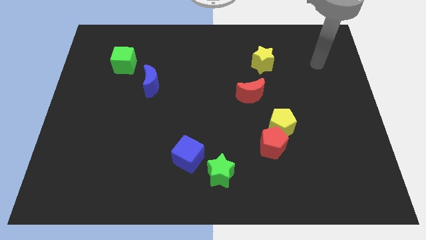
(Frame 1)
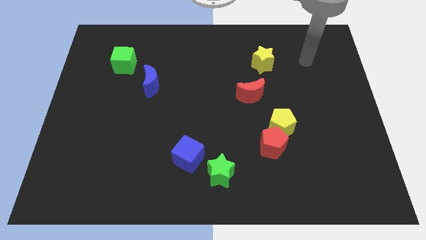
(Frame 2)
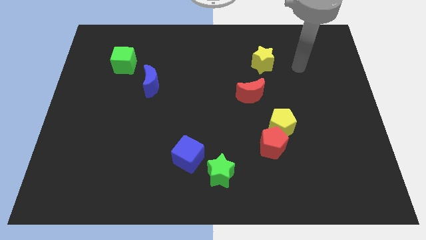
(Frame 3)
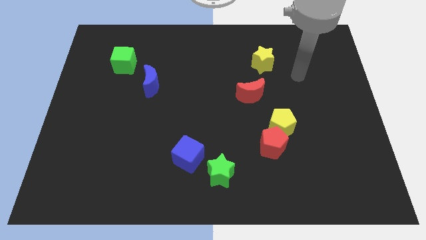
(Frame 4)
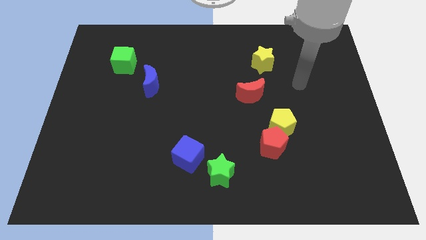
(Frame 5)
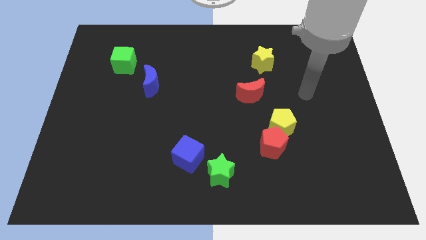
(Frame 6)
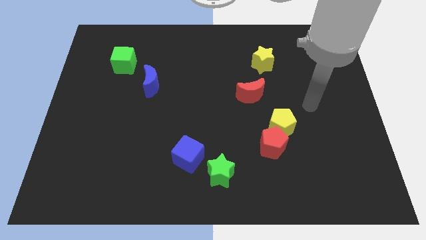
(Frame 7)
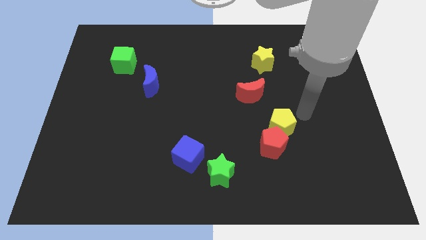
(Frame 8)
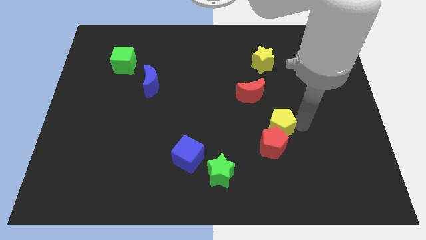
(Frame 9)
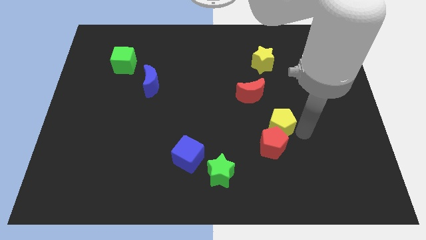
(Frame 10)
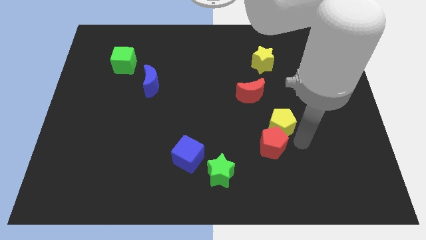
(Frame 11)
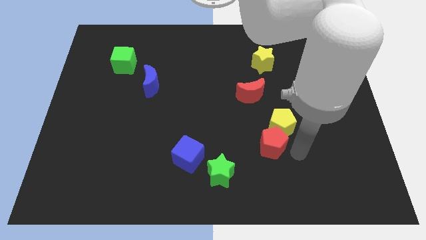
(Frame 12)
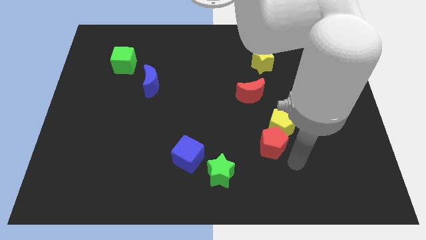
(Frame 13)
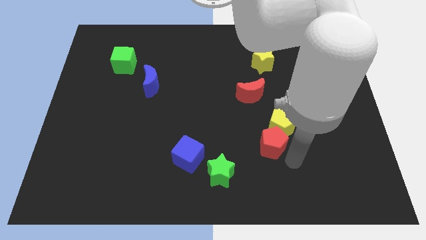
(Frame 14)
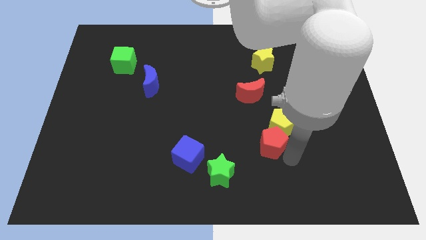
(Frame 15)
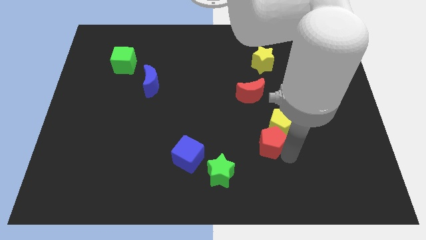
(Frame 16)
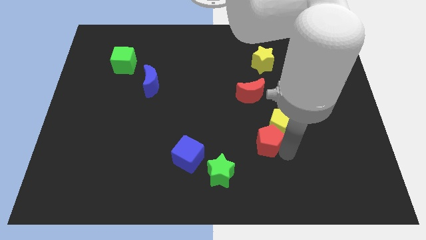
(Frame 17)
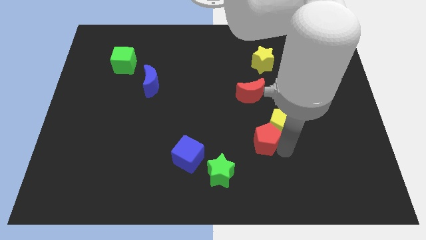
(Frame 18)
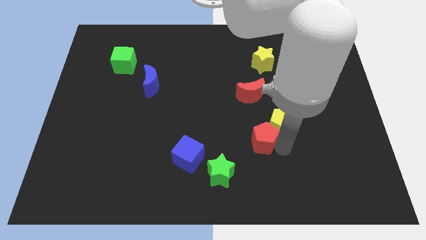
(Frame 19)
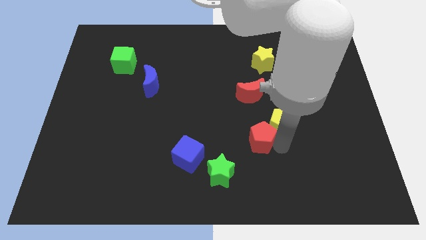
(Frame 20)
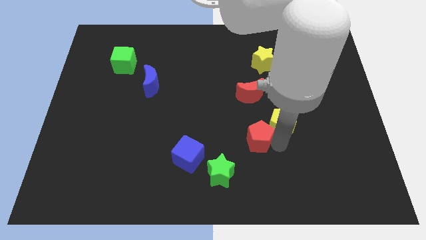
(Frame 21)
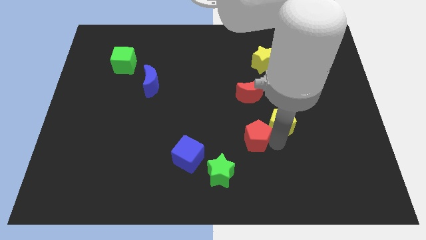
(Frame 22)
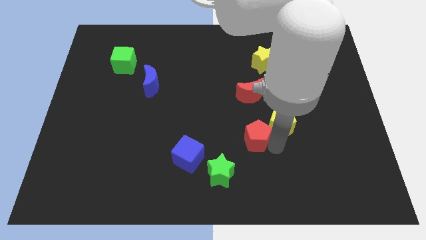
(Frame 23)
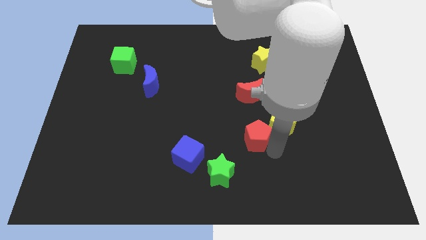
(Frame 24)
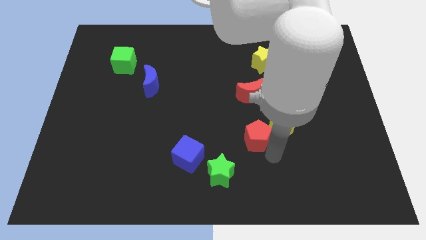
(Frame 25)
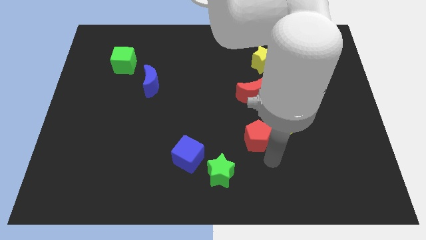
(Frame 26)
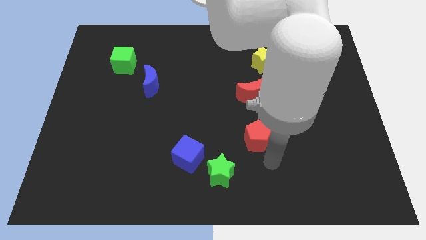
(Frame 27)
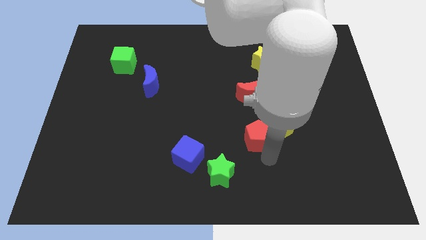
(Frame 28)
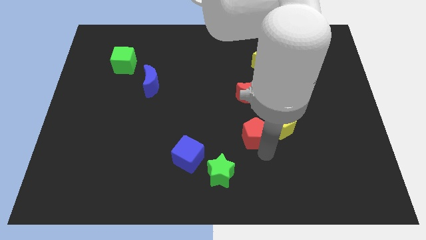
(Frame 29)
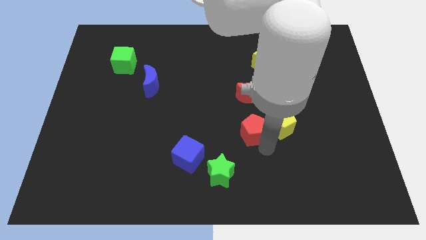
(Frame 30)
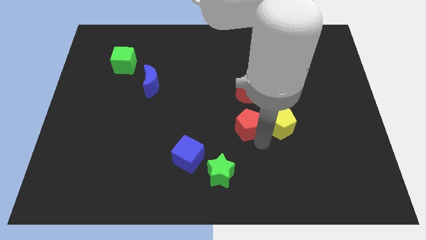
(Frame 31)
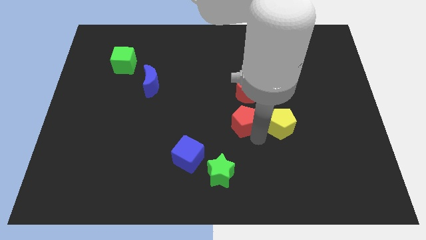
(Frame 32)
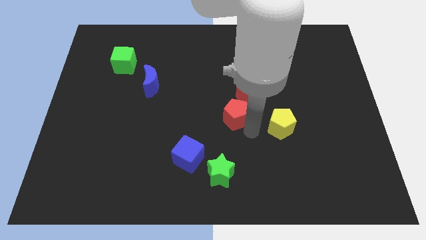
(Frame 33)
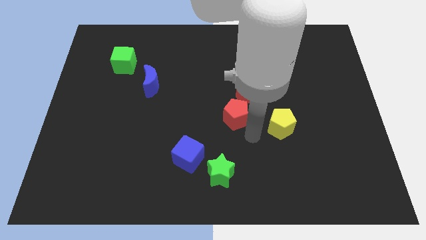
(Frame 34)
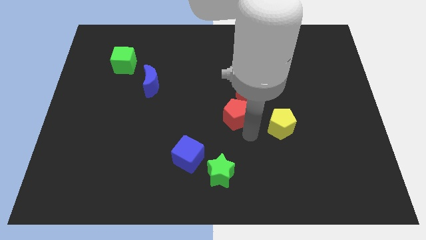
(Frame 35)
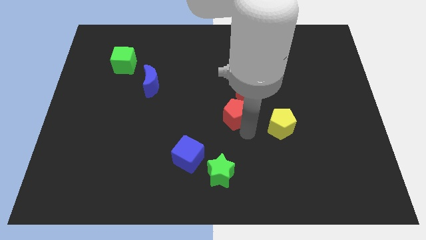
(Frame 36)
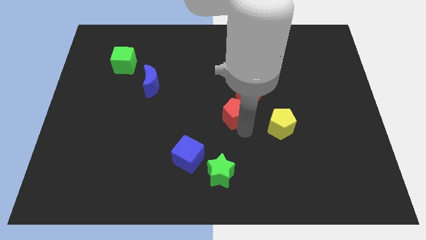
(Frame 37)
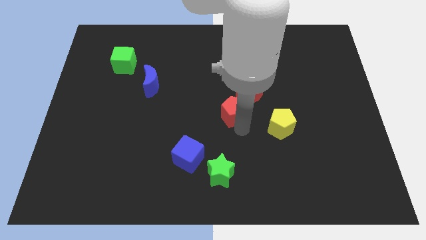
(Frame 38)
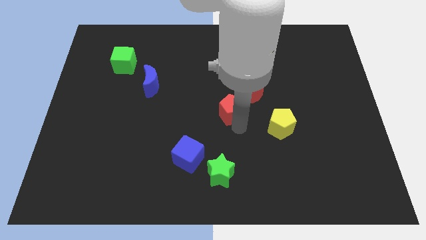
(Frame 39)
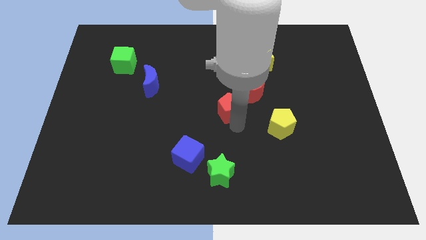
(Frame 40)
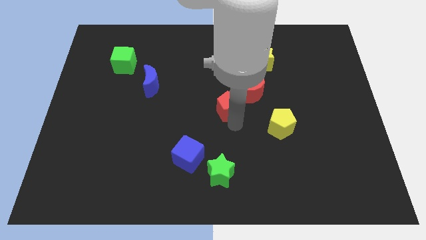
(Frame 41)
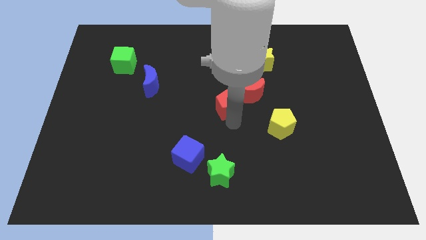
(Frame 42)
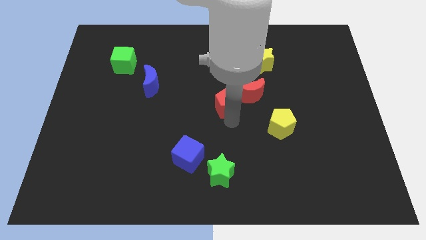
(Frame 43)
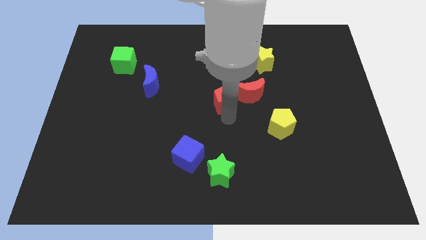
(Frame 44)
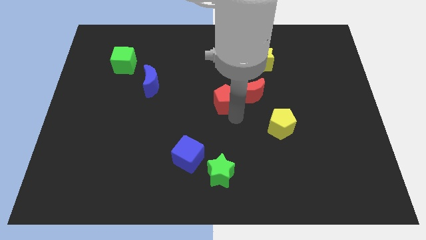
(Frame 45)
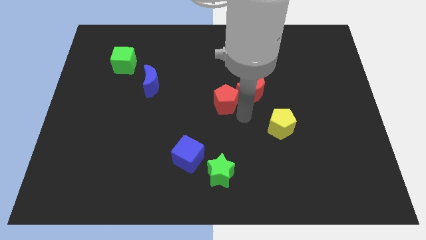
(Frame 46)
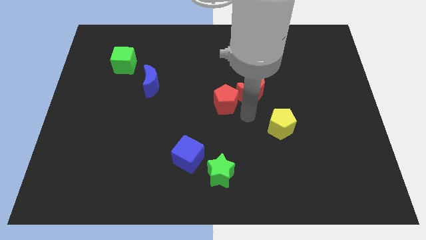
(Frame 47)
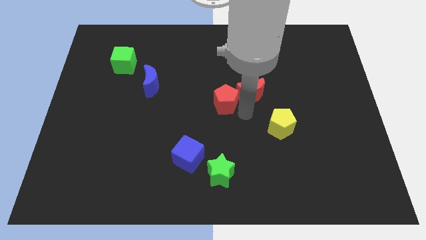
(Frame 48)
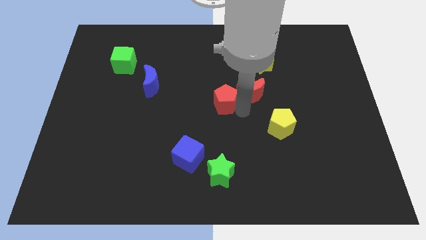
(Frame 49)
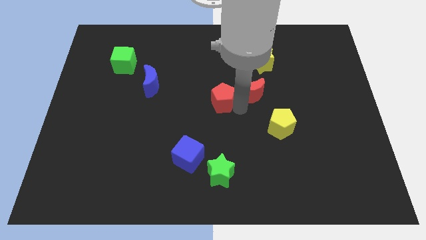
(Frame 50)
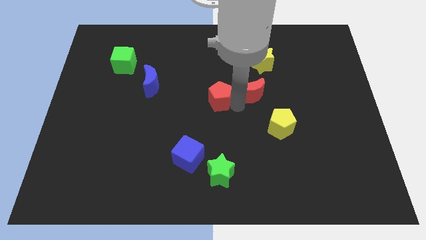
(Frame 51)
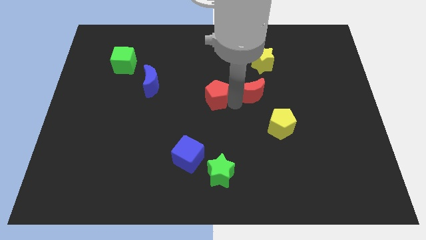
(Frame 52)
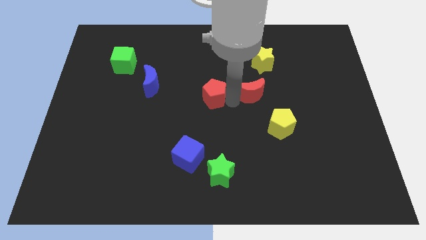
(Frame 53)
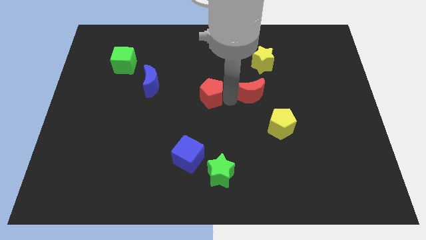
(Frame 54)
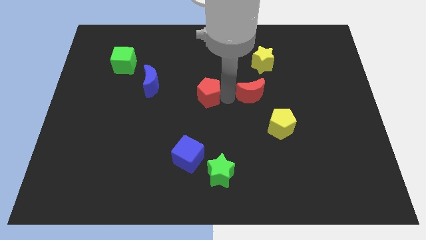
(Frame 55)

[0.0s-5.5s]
move the red pentagon up and then to the left

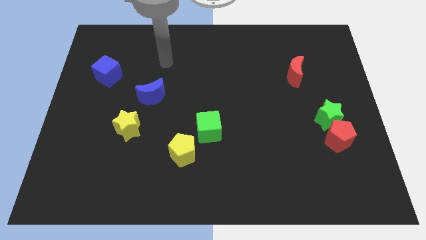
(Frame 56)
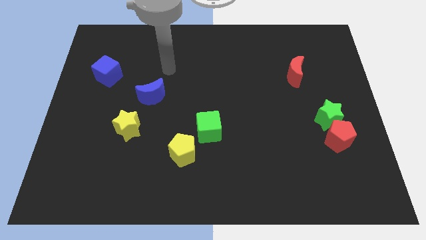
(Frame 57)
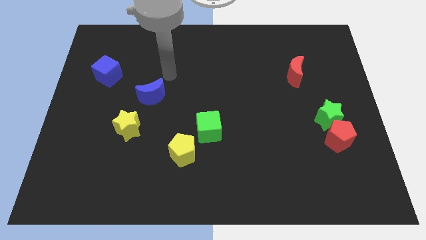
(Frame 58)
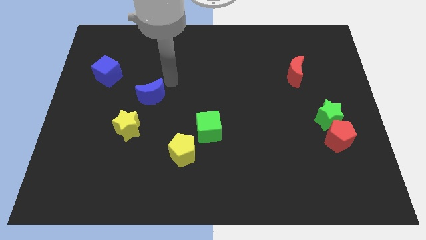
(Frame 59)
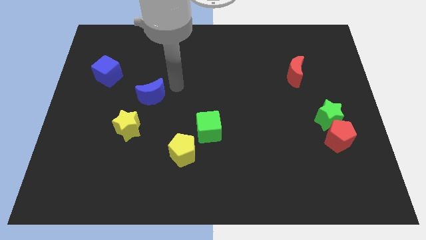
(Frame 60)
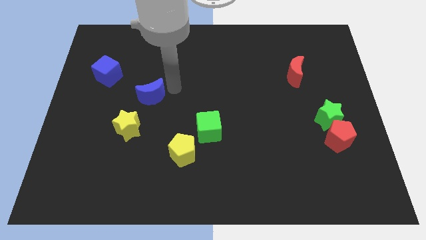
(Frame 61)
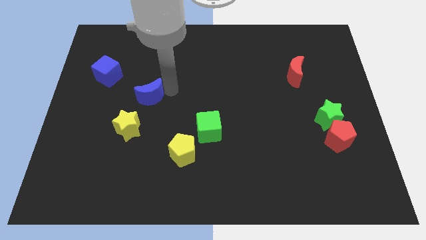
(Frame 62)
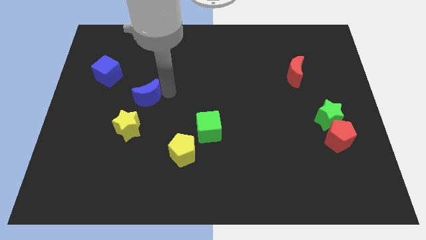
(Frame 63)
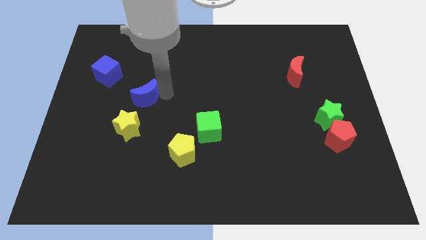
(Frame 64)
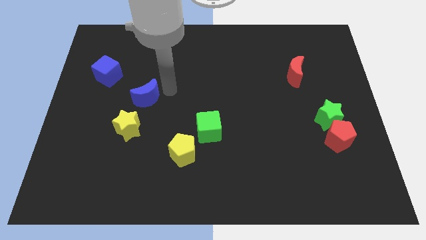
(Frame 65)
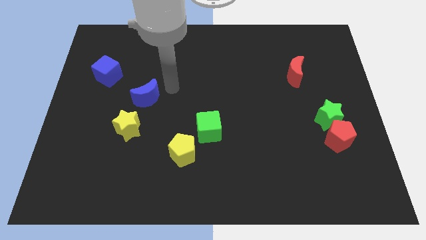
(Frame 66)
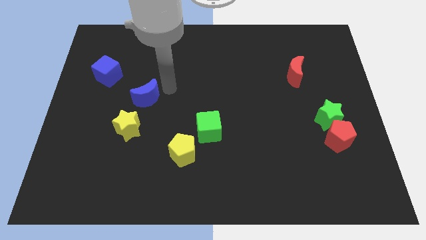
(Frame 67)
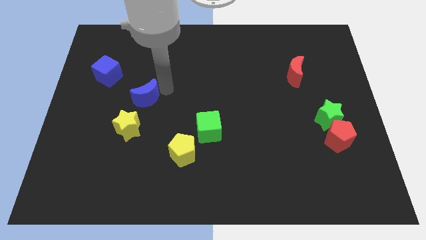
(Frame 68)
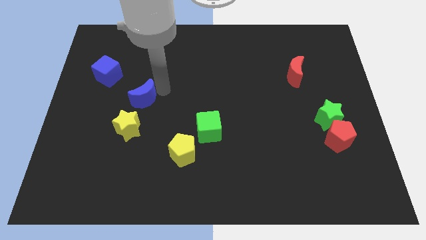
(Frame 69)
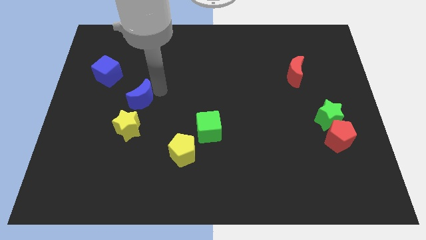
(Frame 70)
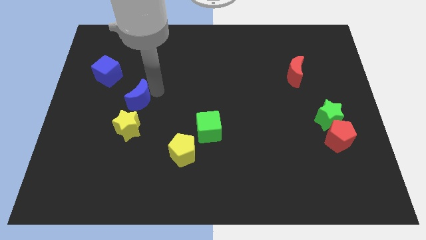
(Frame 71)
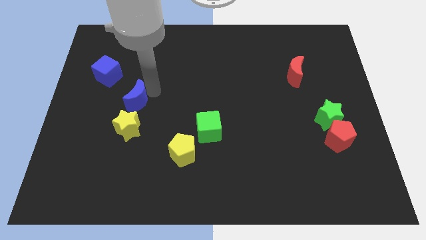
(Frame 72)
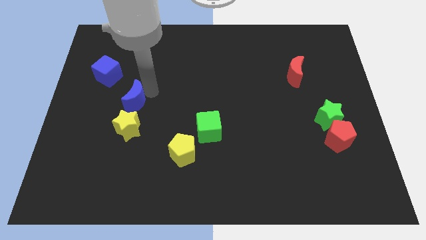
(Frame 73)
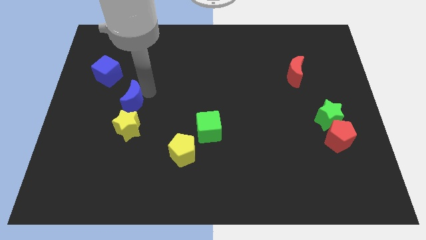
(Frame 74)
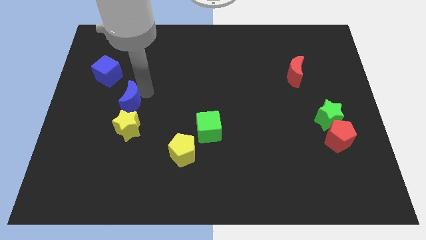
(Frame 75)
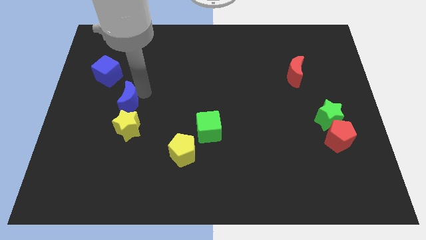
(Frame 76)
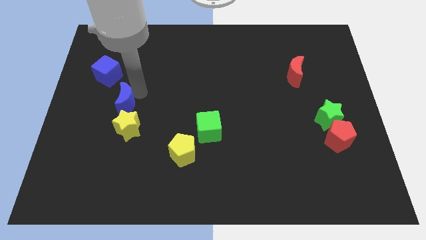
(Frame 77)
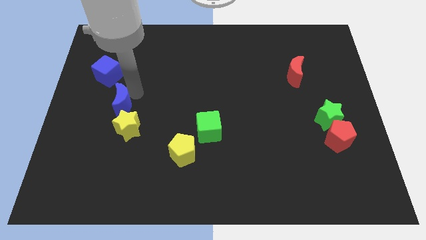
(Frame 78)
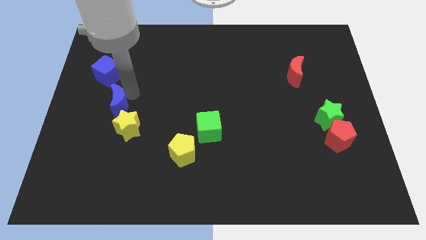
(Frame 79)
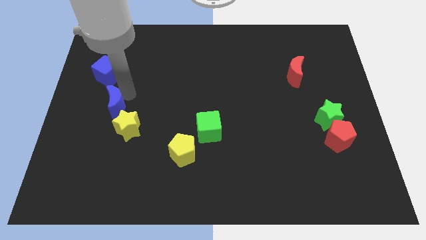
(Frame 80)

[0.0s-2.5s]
slightly slide the blue moon down and left diagonally
